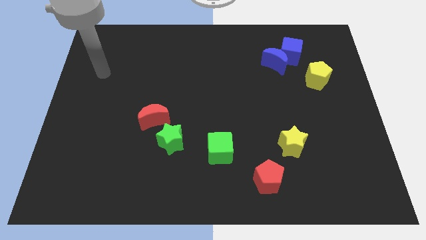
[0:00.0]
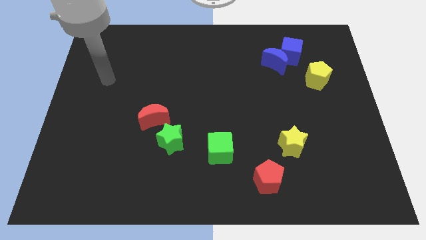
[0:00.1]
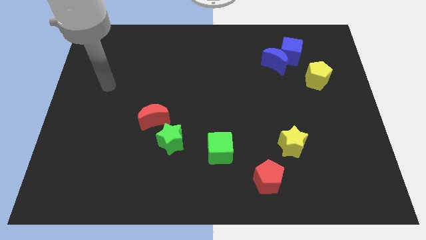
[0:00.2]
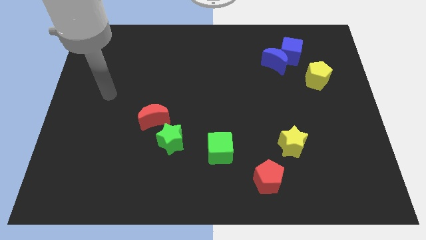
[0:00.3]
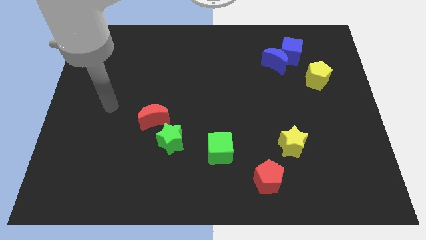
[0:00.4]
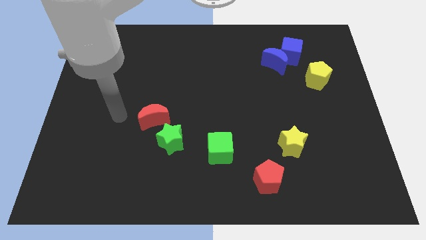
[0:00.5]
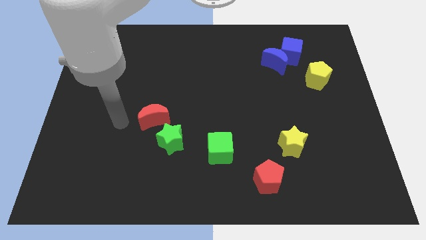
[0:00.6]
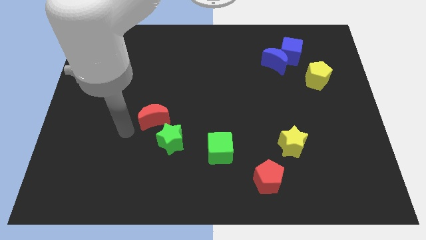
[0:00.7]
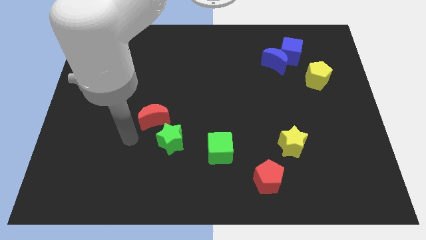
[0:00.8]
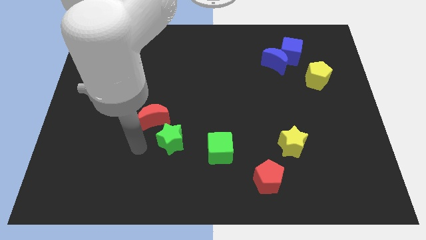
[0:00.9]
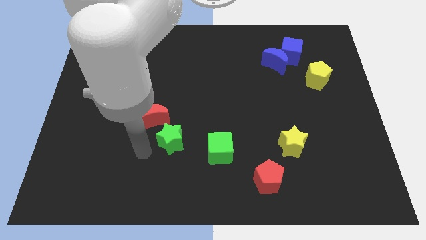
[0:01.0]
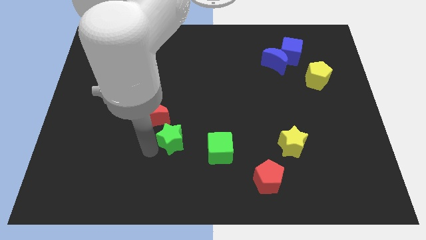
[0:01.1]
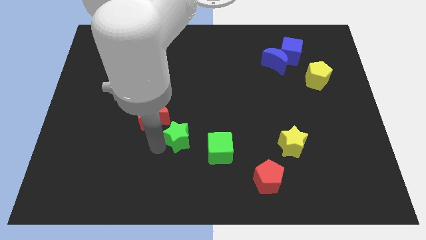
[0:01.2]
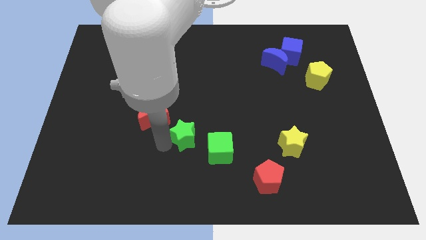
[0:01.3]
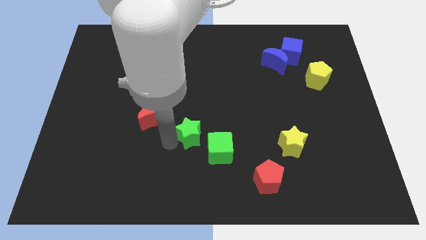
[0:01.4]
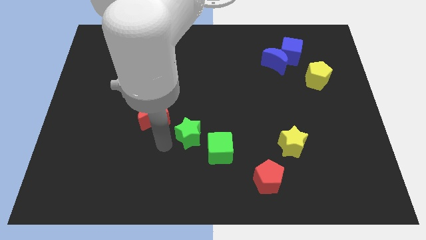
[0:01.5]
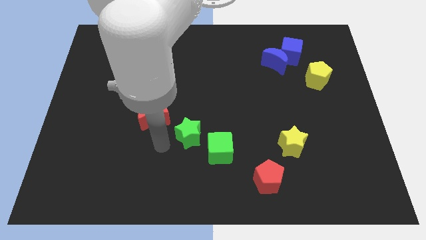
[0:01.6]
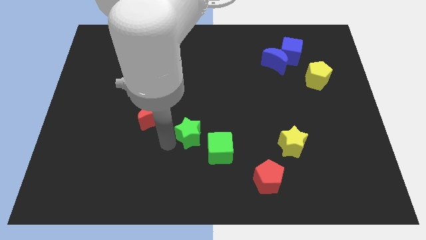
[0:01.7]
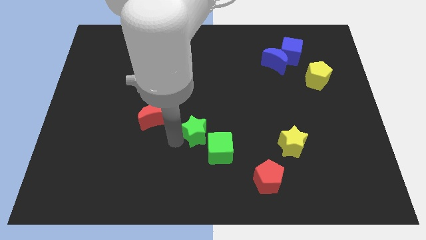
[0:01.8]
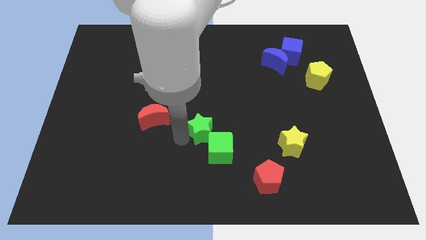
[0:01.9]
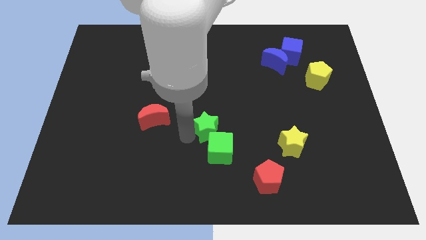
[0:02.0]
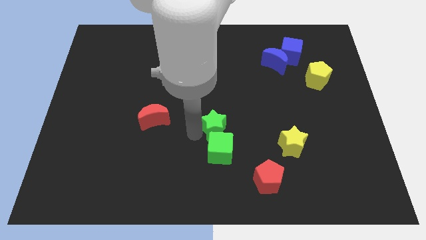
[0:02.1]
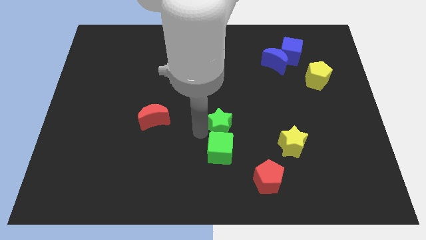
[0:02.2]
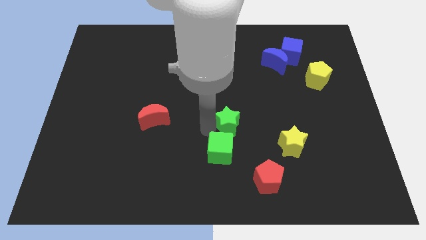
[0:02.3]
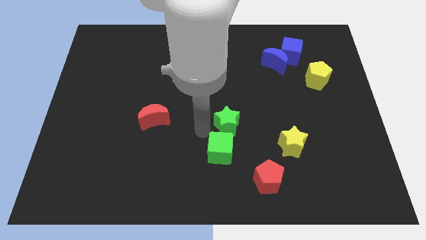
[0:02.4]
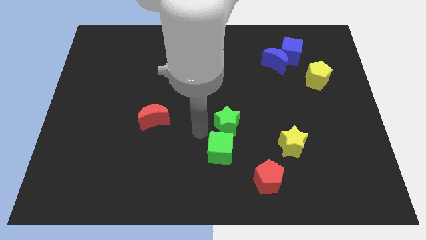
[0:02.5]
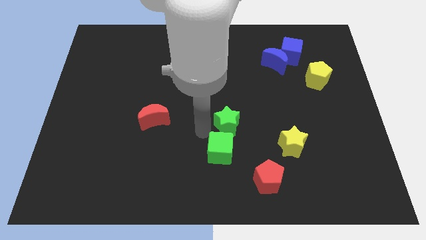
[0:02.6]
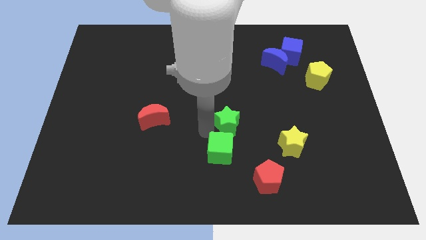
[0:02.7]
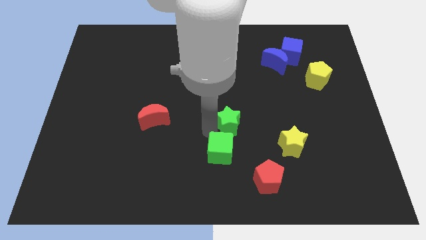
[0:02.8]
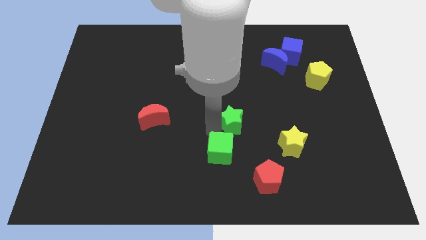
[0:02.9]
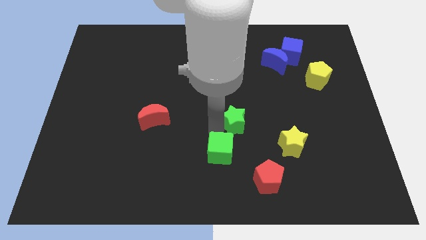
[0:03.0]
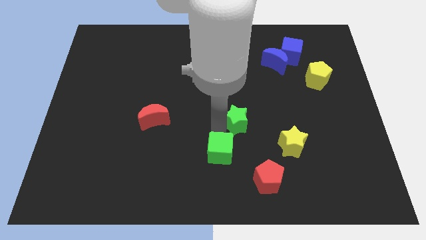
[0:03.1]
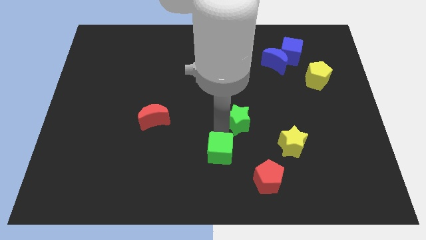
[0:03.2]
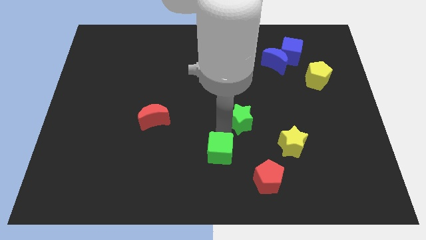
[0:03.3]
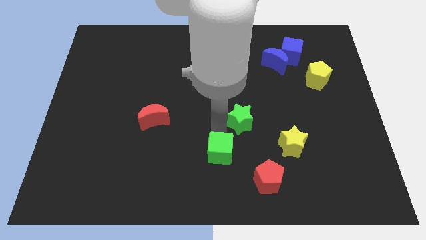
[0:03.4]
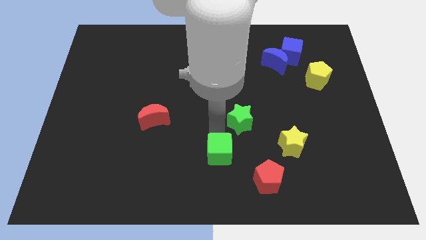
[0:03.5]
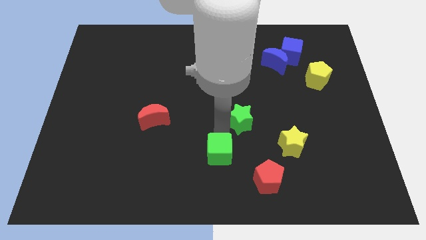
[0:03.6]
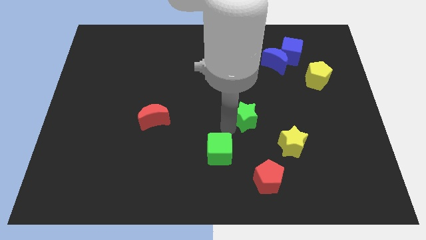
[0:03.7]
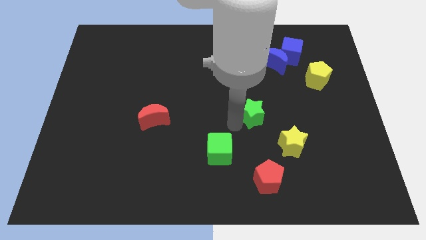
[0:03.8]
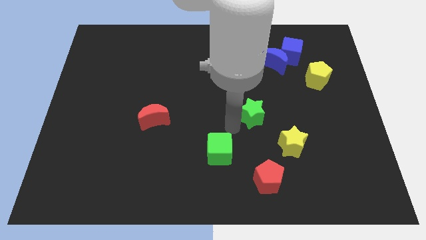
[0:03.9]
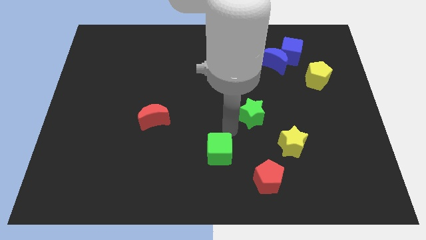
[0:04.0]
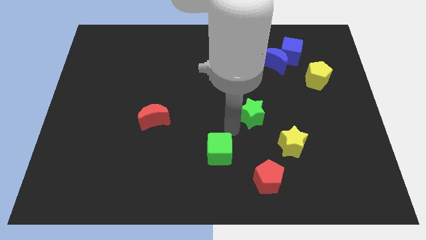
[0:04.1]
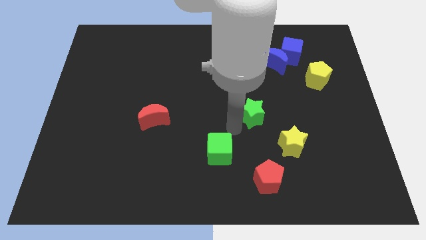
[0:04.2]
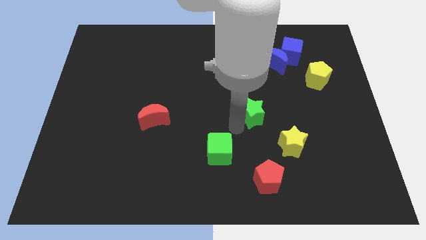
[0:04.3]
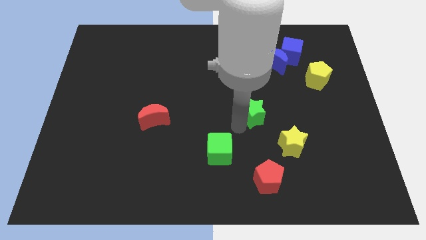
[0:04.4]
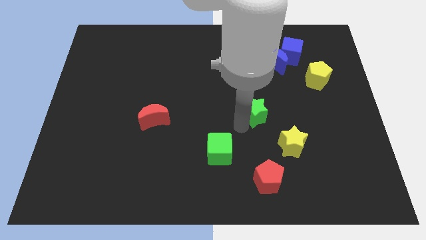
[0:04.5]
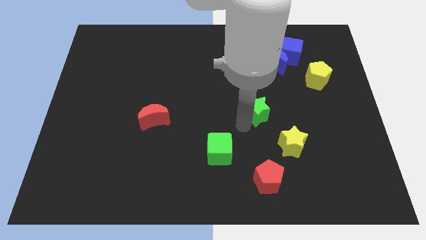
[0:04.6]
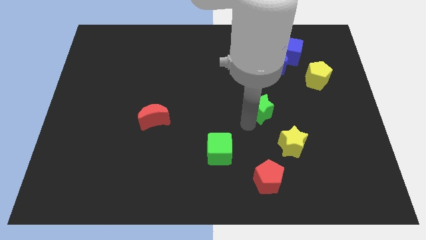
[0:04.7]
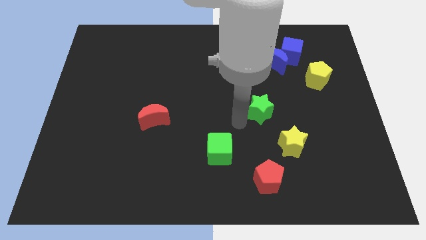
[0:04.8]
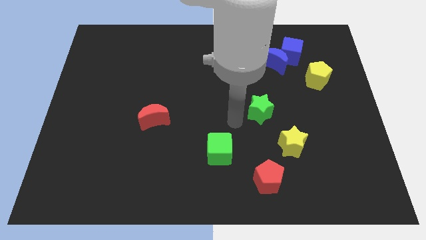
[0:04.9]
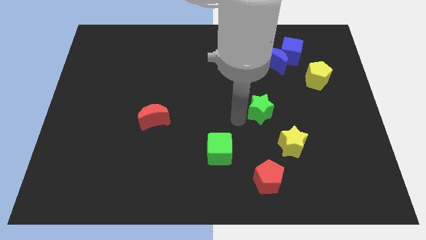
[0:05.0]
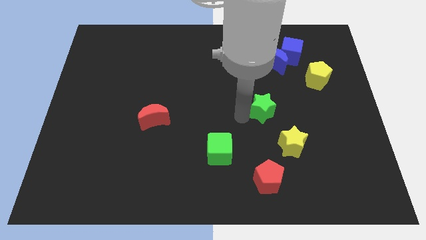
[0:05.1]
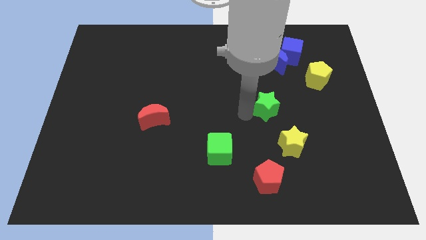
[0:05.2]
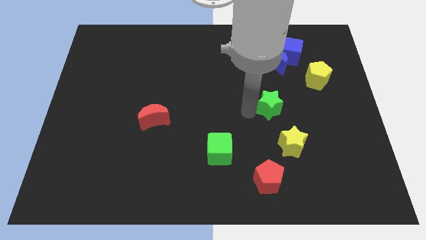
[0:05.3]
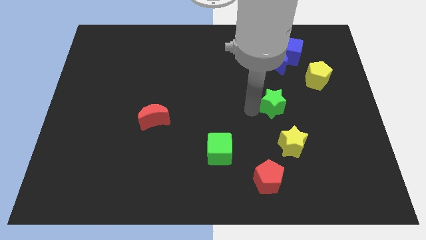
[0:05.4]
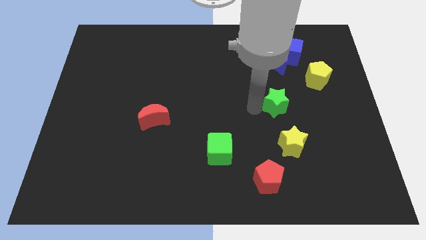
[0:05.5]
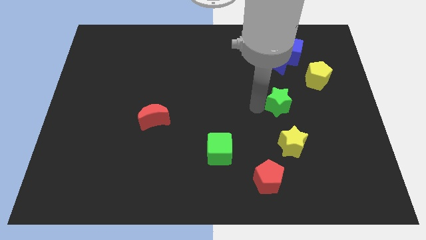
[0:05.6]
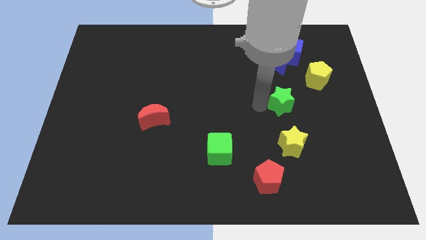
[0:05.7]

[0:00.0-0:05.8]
slide the green star to the bottom left side of the yellow pentagon
